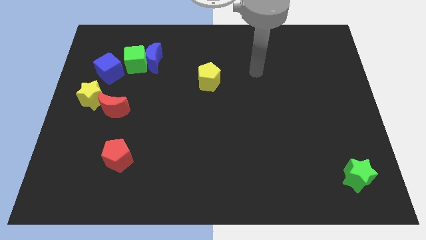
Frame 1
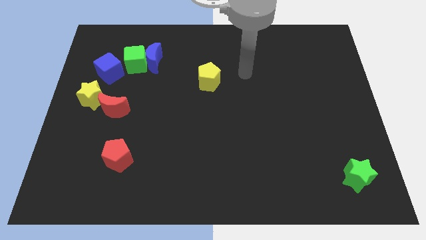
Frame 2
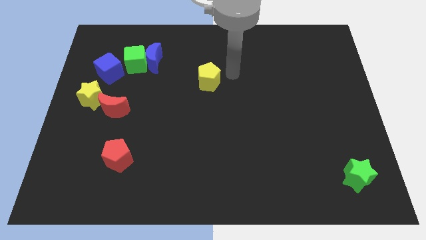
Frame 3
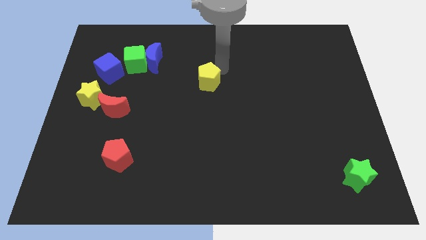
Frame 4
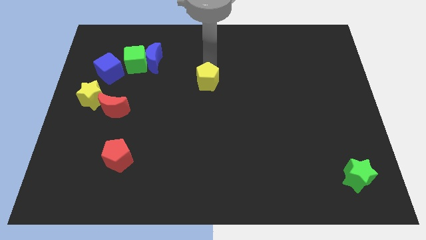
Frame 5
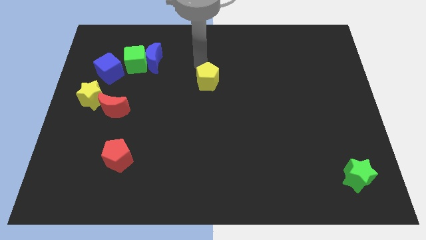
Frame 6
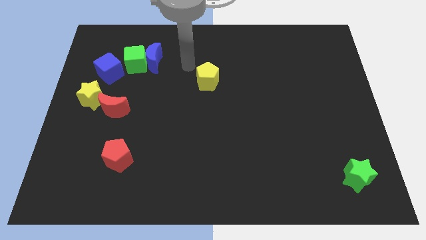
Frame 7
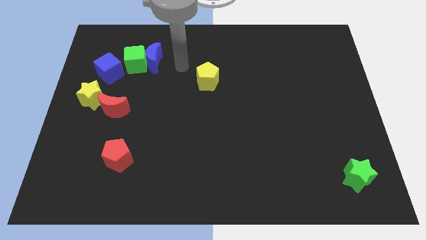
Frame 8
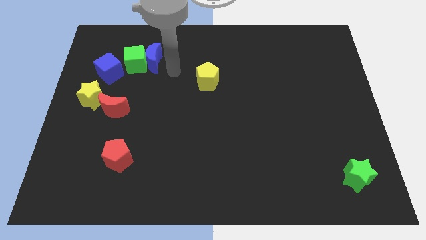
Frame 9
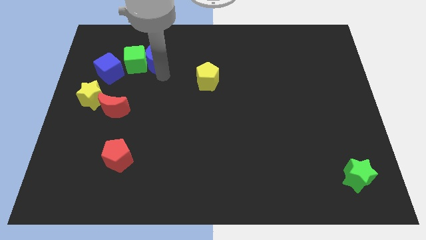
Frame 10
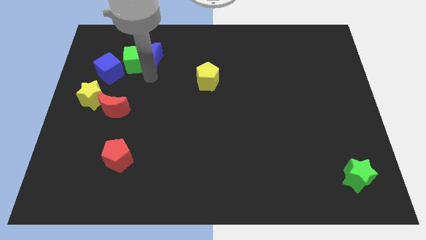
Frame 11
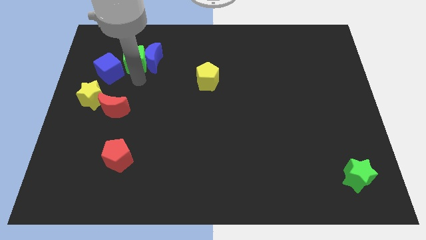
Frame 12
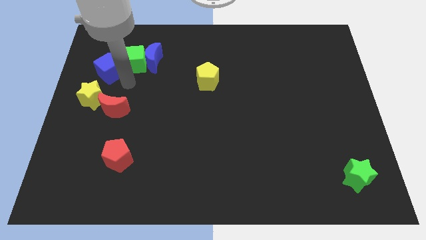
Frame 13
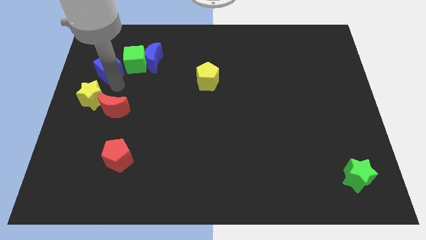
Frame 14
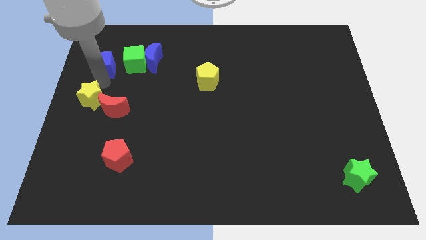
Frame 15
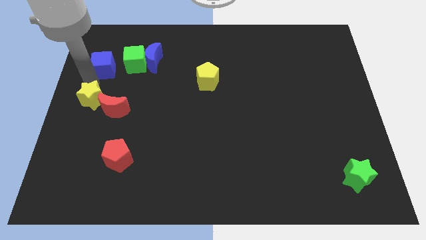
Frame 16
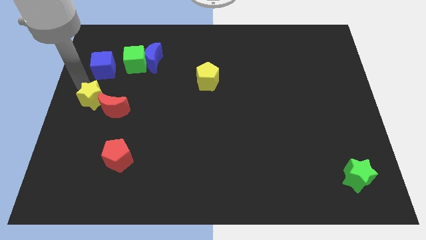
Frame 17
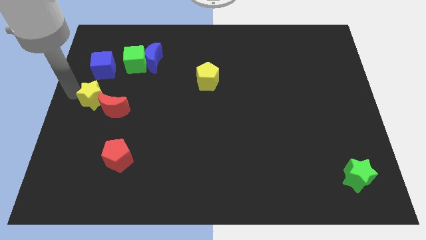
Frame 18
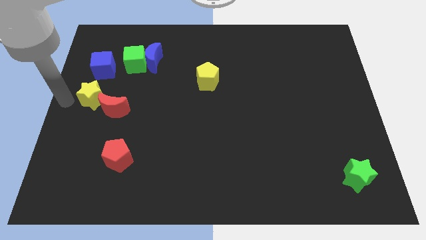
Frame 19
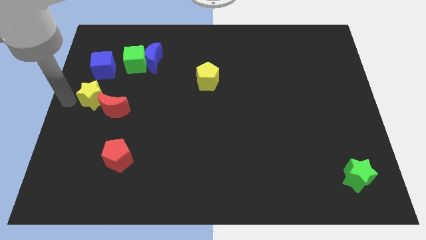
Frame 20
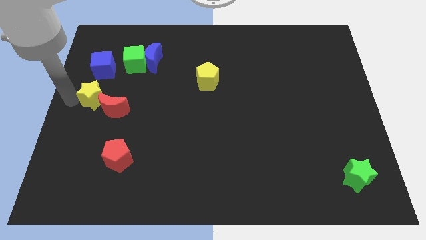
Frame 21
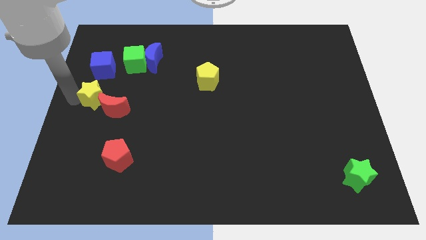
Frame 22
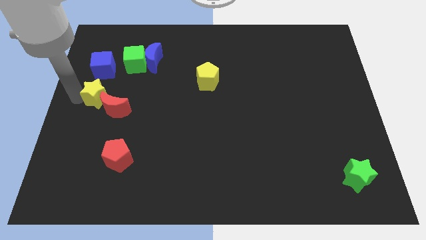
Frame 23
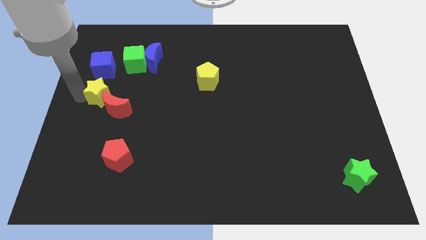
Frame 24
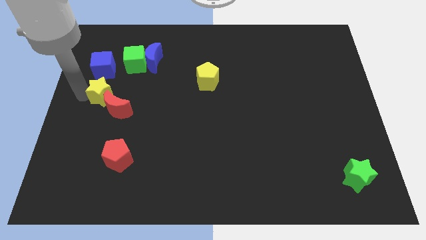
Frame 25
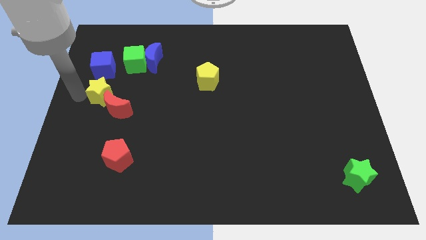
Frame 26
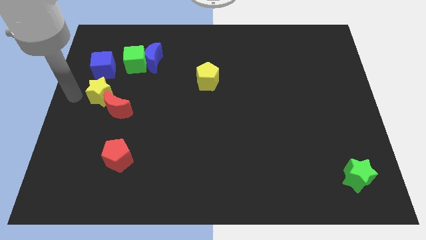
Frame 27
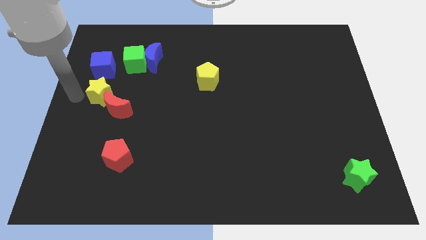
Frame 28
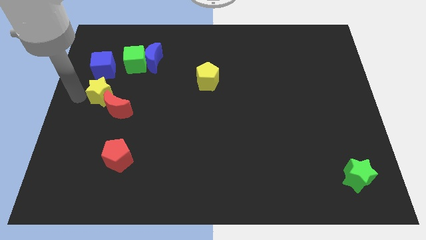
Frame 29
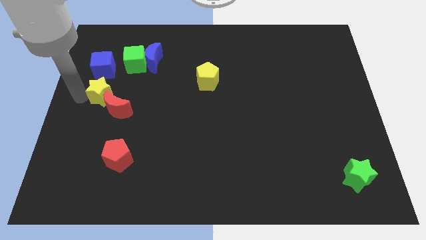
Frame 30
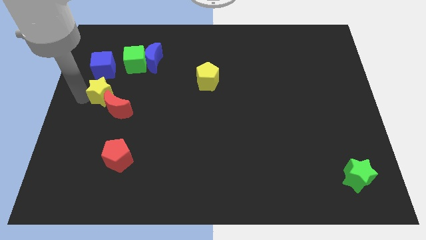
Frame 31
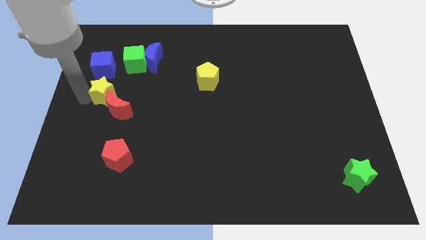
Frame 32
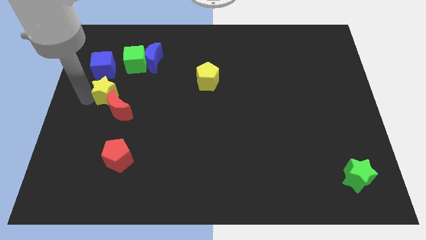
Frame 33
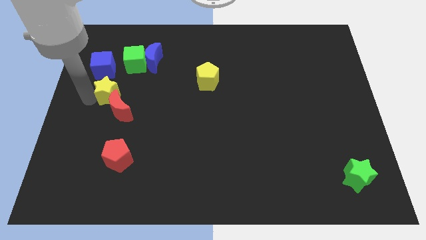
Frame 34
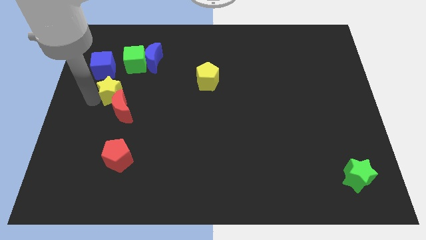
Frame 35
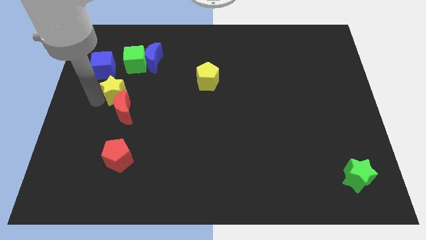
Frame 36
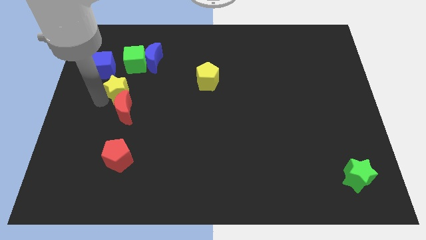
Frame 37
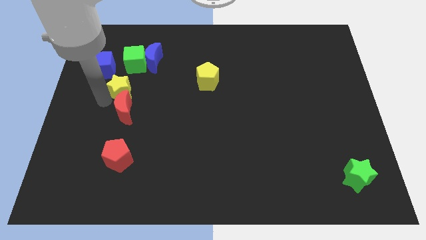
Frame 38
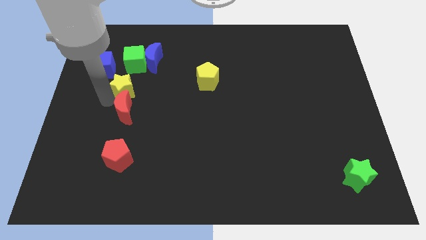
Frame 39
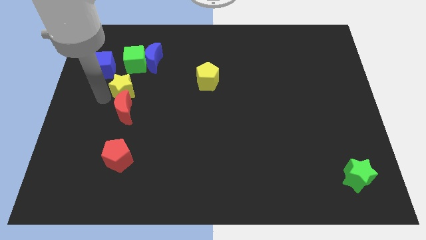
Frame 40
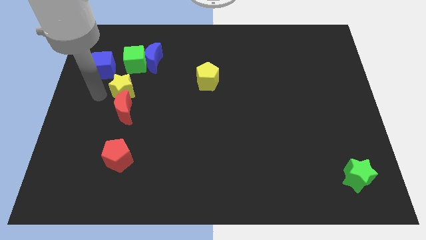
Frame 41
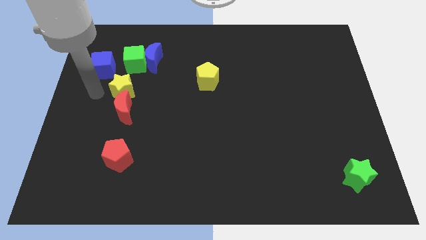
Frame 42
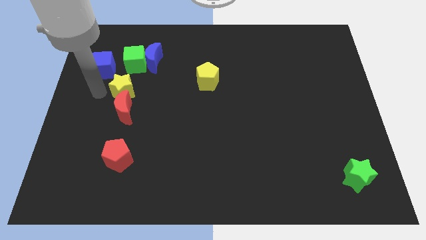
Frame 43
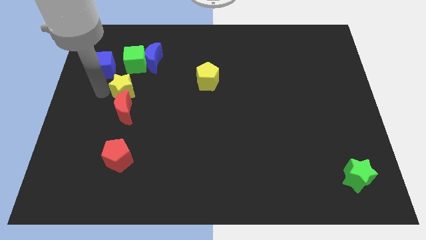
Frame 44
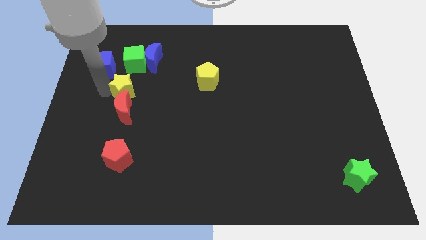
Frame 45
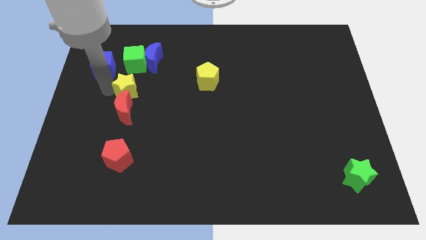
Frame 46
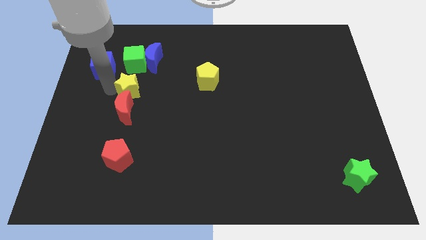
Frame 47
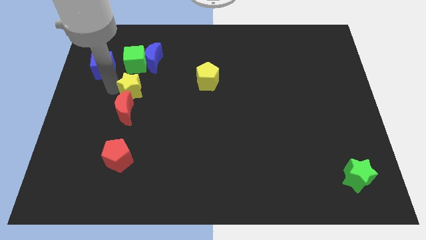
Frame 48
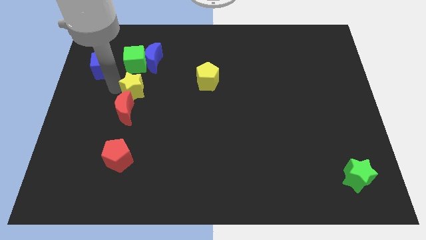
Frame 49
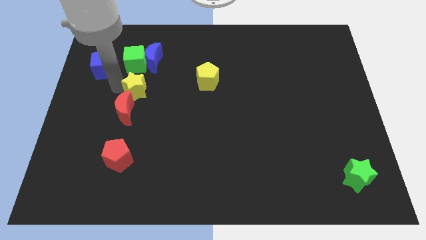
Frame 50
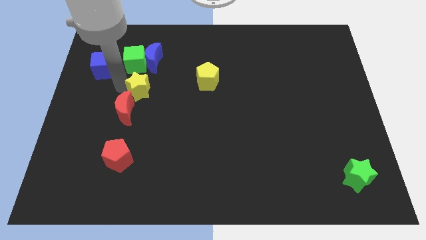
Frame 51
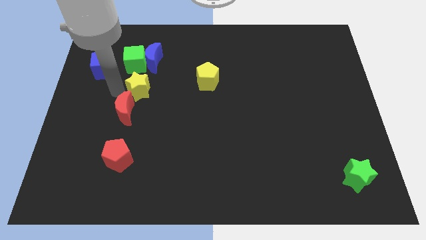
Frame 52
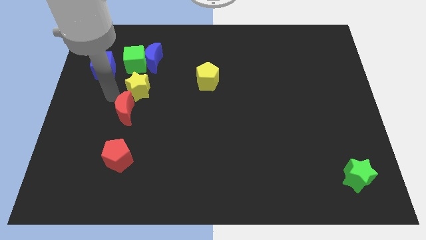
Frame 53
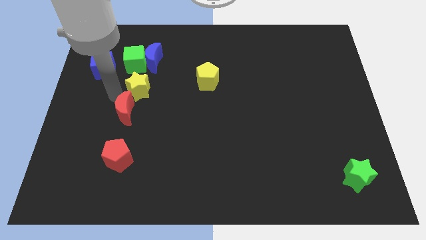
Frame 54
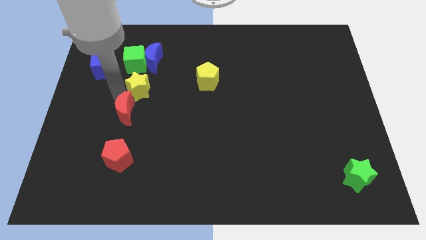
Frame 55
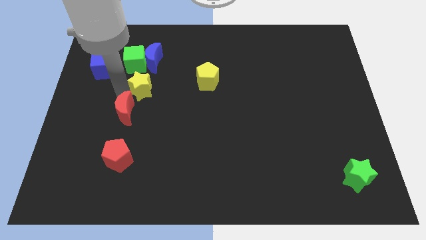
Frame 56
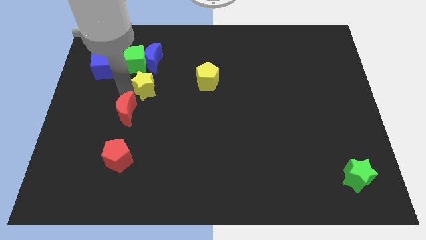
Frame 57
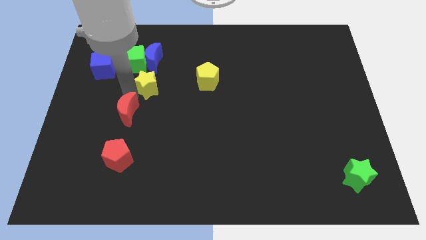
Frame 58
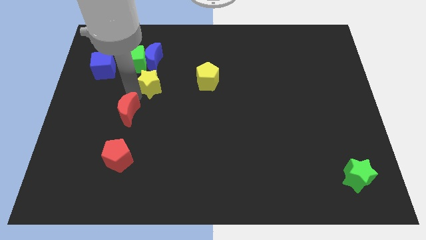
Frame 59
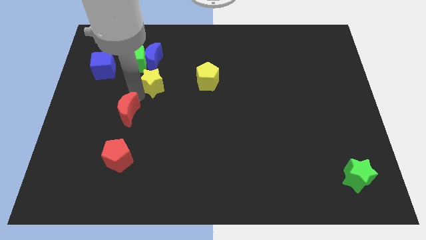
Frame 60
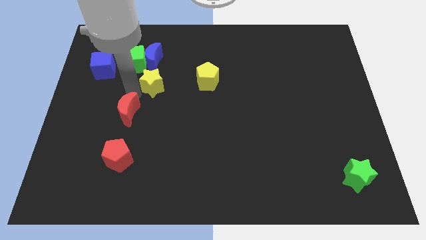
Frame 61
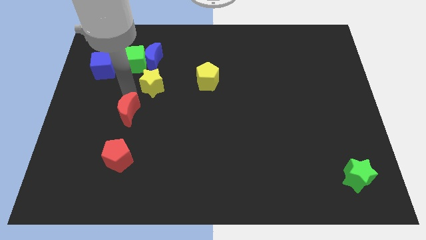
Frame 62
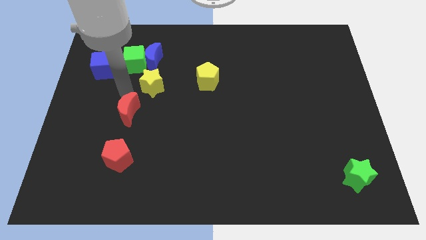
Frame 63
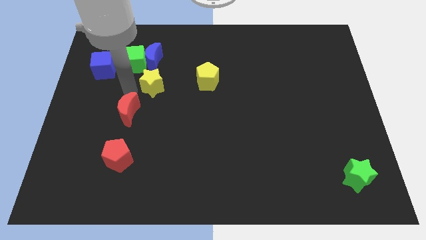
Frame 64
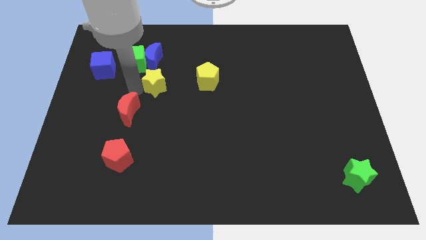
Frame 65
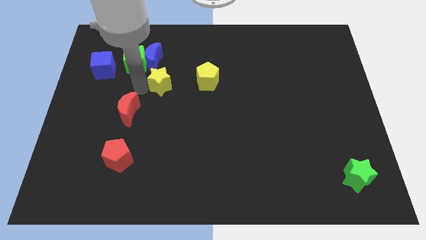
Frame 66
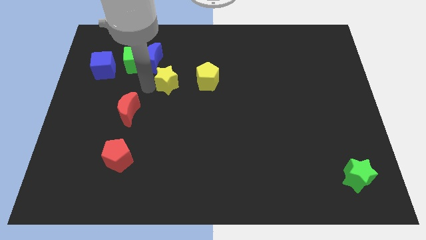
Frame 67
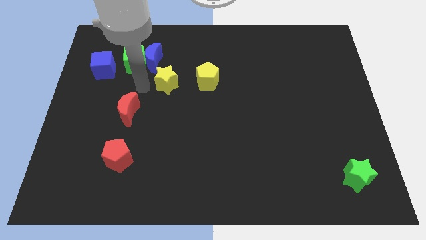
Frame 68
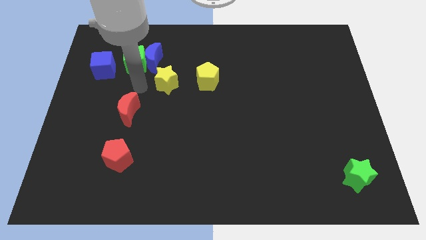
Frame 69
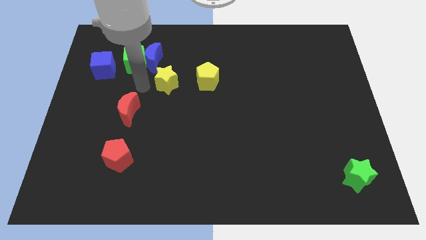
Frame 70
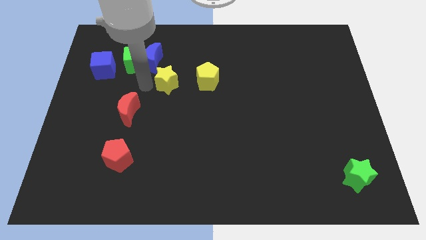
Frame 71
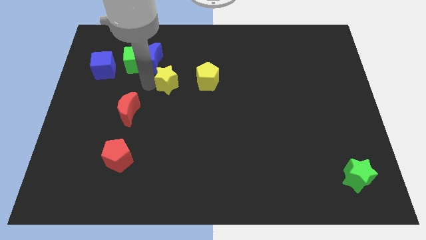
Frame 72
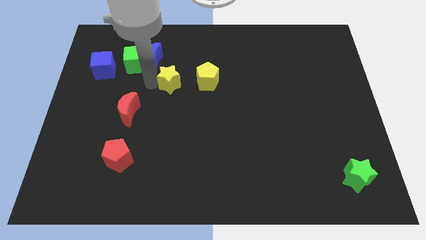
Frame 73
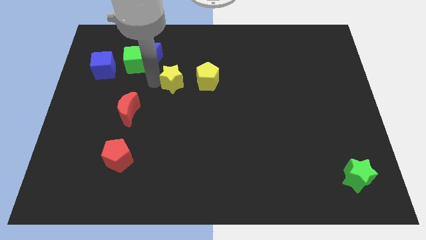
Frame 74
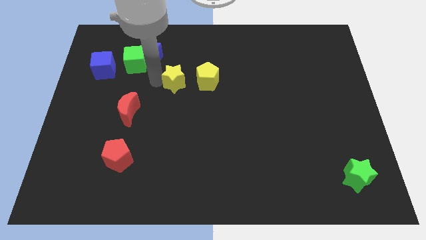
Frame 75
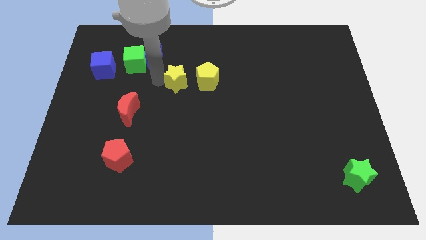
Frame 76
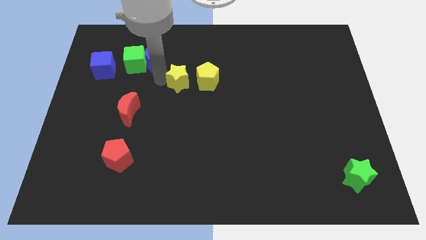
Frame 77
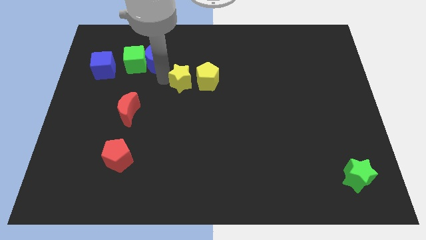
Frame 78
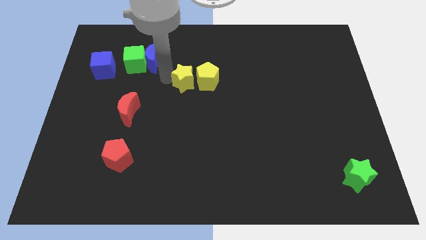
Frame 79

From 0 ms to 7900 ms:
push the yellow star close to the yellow pentagon
